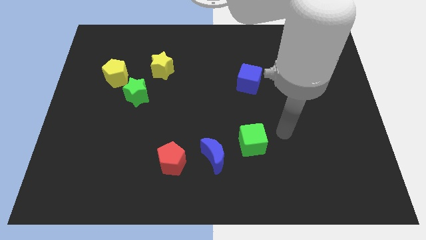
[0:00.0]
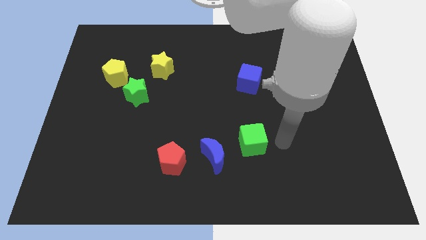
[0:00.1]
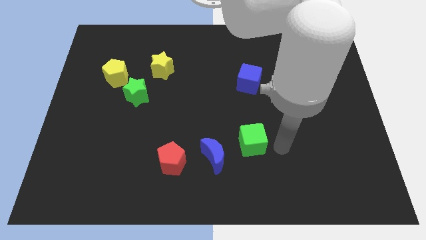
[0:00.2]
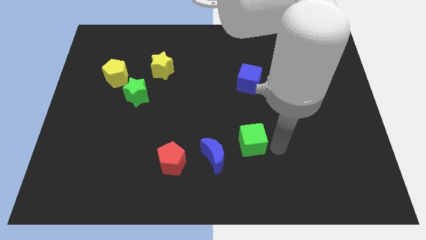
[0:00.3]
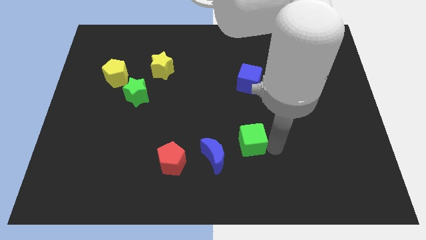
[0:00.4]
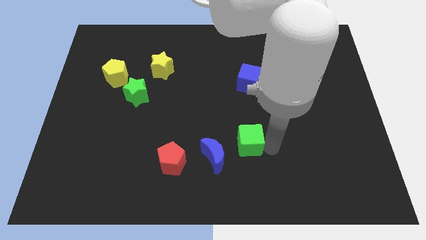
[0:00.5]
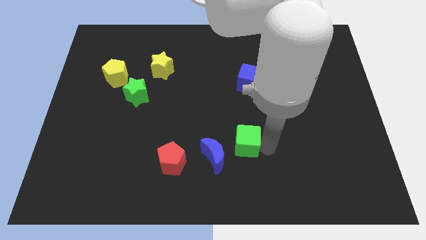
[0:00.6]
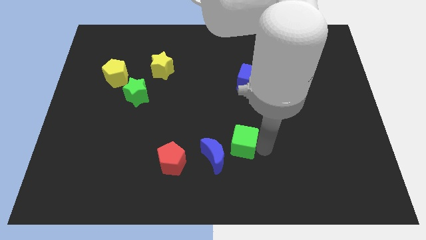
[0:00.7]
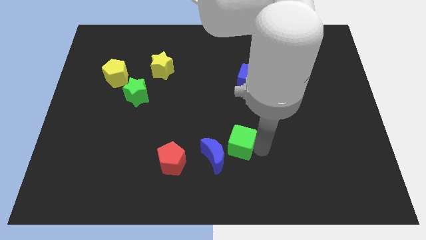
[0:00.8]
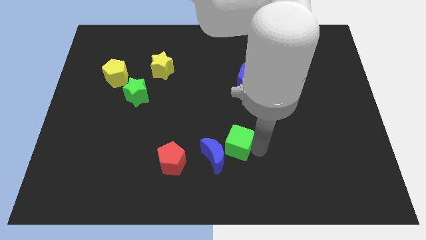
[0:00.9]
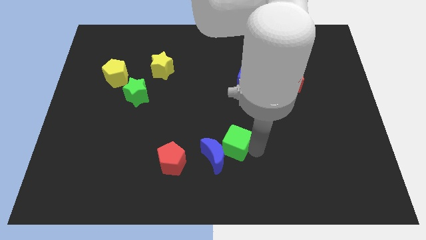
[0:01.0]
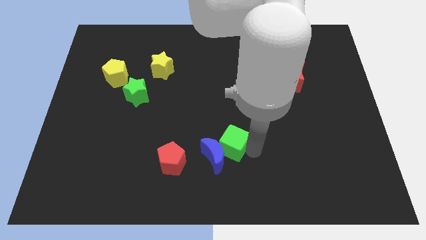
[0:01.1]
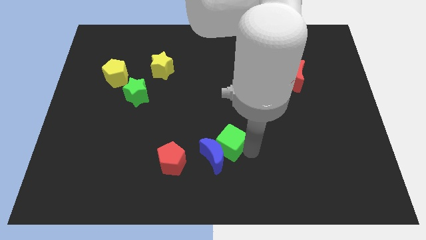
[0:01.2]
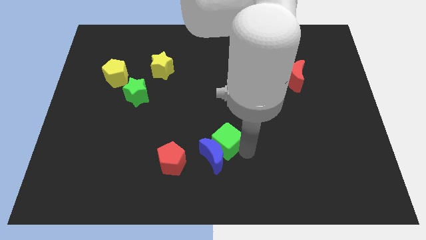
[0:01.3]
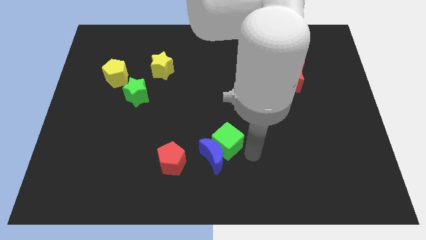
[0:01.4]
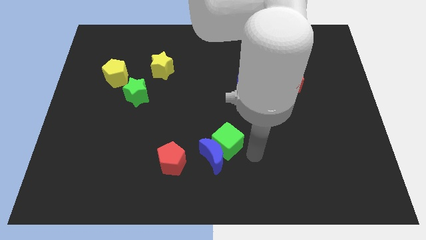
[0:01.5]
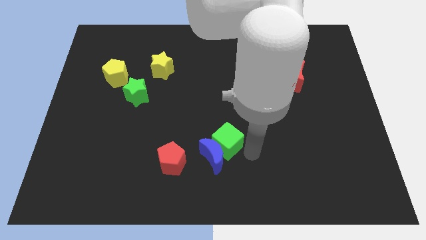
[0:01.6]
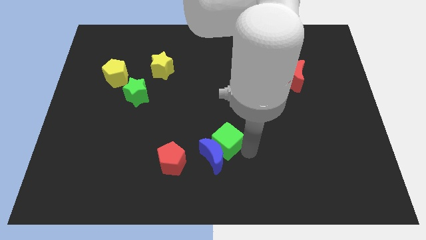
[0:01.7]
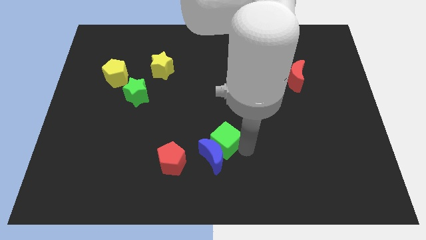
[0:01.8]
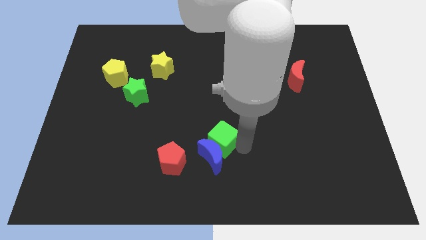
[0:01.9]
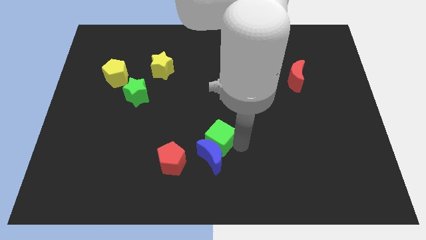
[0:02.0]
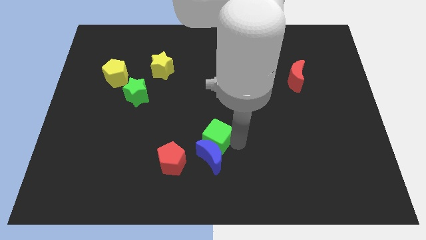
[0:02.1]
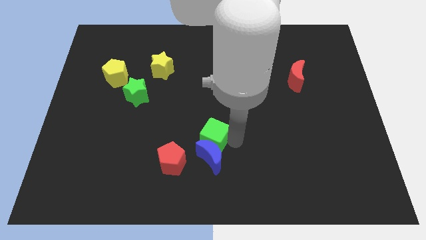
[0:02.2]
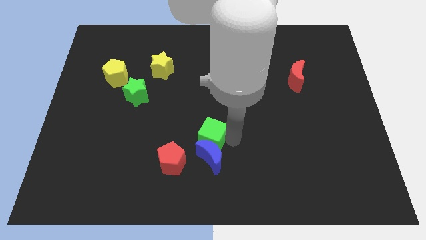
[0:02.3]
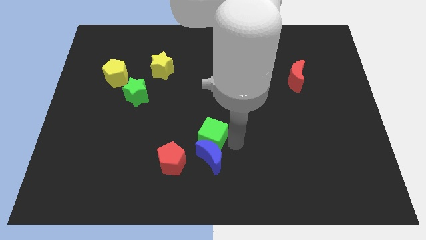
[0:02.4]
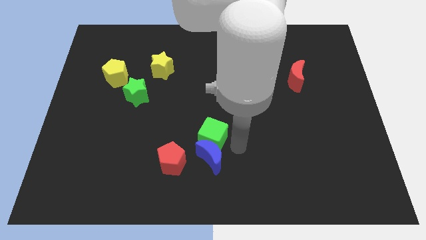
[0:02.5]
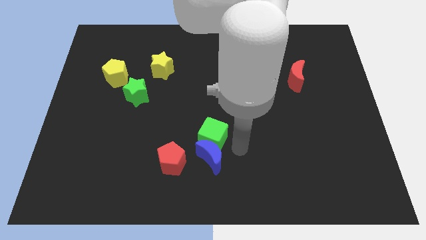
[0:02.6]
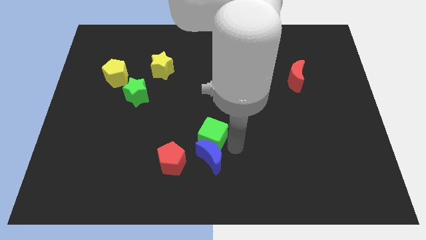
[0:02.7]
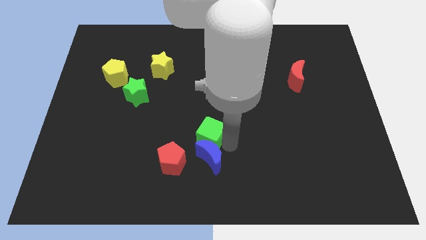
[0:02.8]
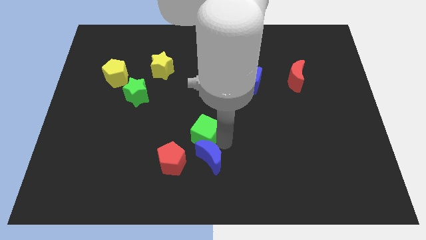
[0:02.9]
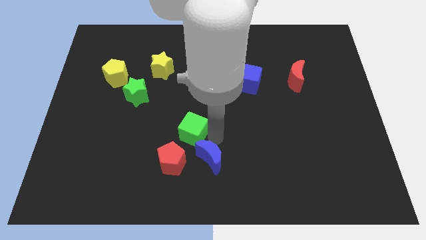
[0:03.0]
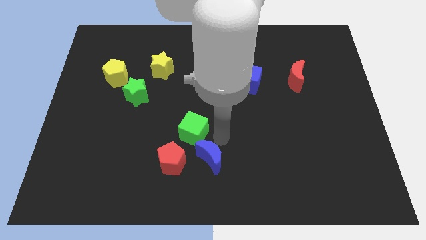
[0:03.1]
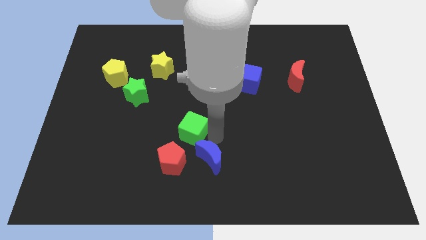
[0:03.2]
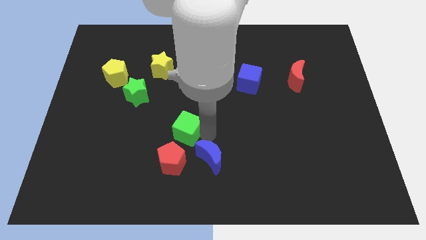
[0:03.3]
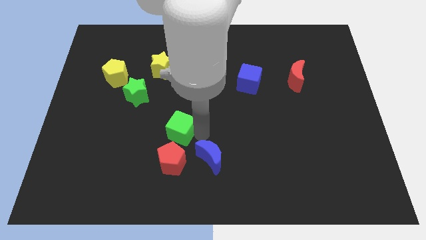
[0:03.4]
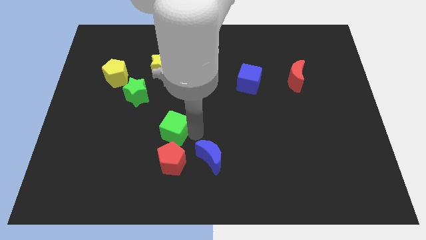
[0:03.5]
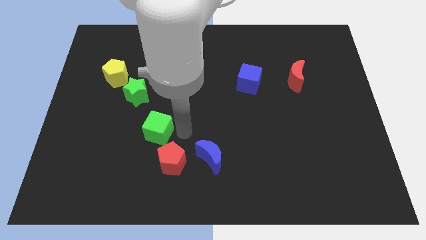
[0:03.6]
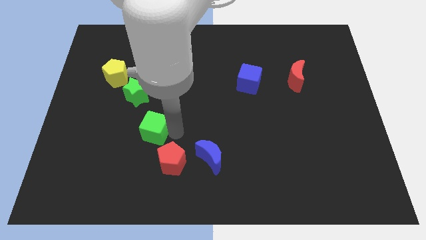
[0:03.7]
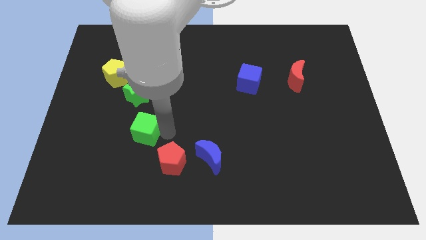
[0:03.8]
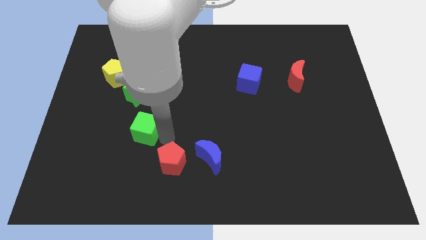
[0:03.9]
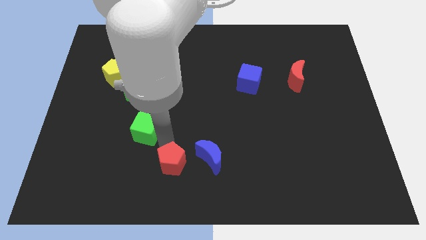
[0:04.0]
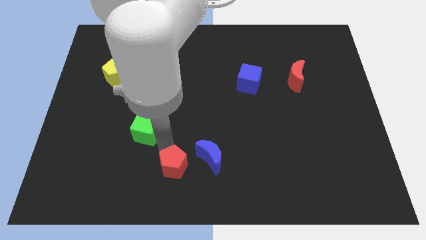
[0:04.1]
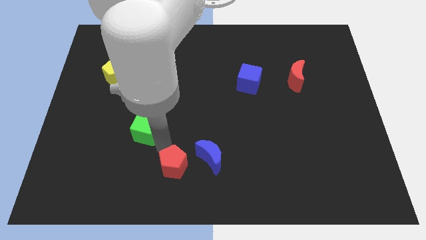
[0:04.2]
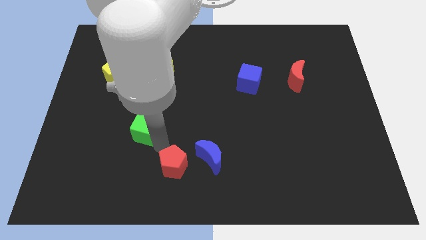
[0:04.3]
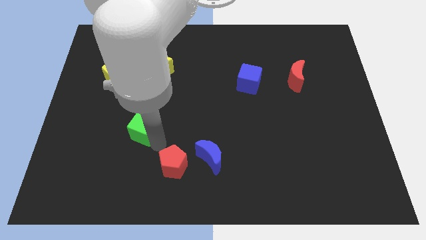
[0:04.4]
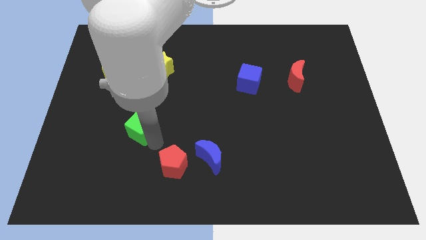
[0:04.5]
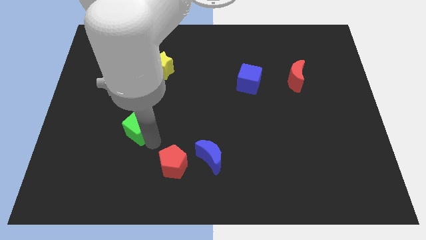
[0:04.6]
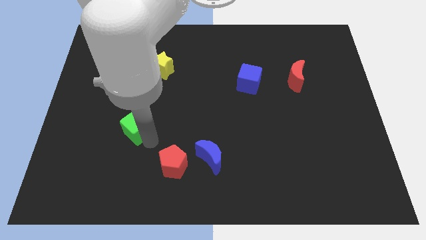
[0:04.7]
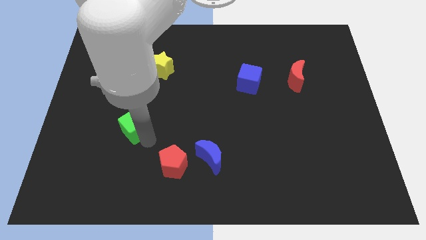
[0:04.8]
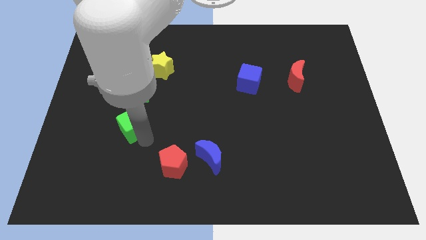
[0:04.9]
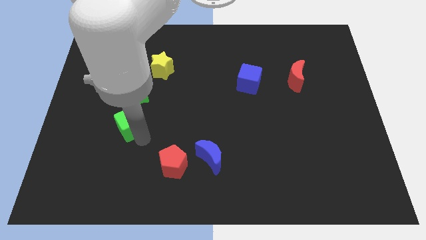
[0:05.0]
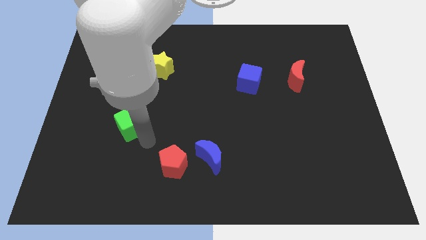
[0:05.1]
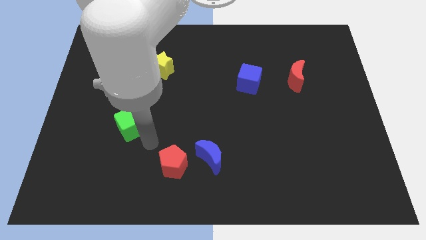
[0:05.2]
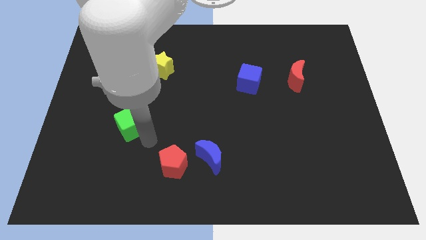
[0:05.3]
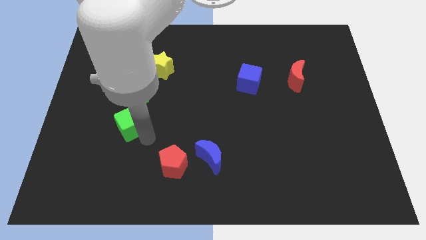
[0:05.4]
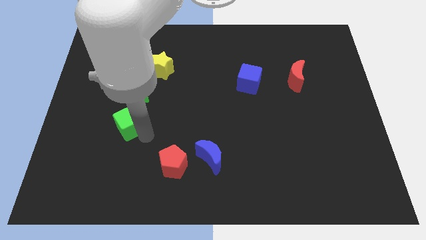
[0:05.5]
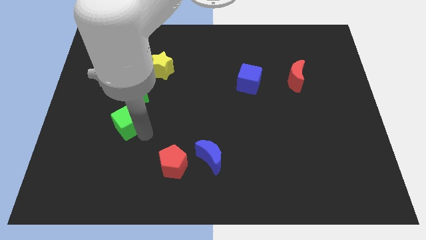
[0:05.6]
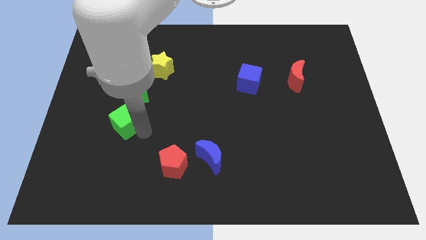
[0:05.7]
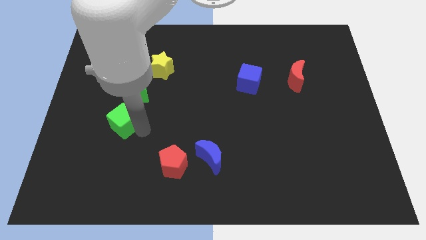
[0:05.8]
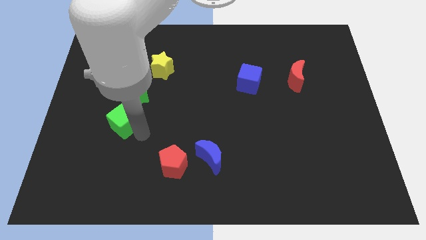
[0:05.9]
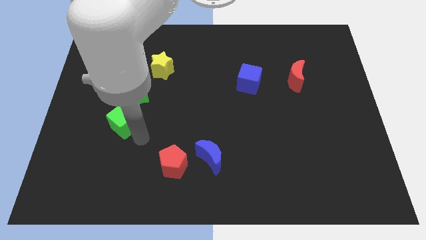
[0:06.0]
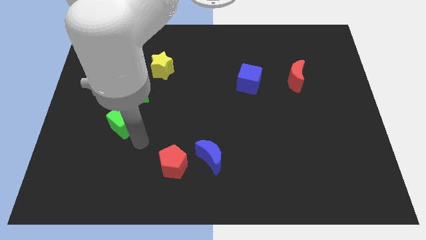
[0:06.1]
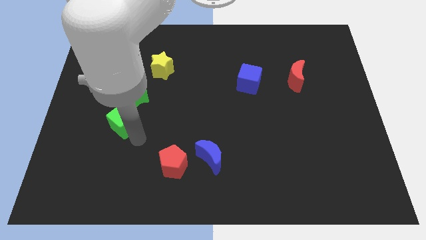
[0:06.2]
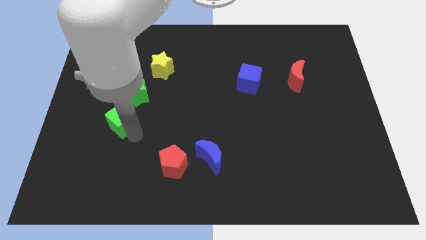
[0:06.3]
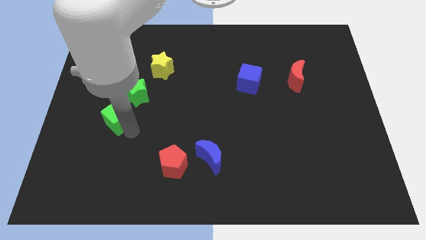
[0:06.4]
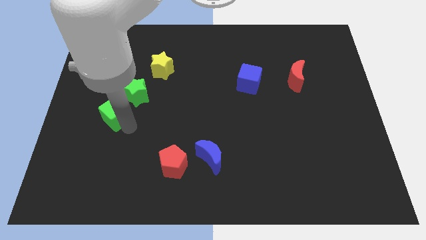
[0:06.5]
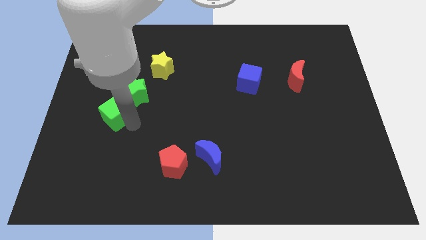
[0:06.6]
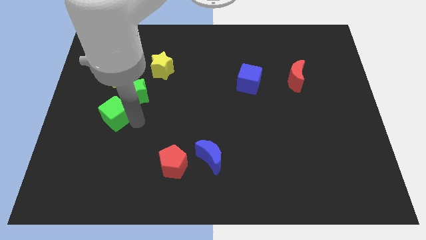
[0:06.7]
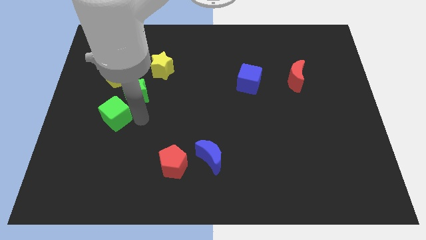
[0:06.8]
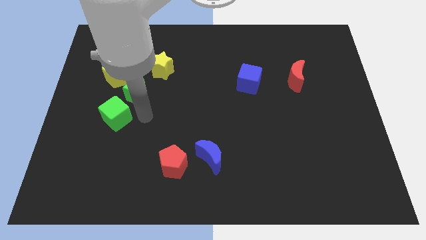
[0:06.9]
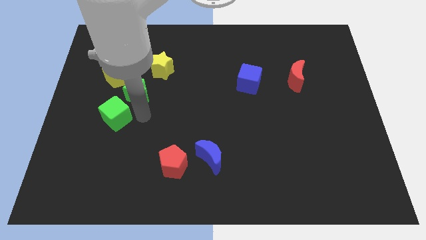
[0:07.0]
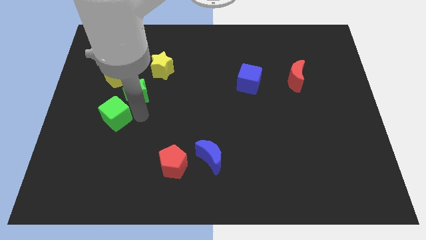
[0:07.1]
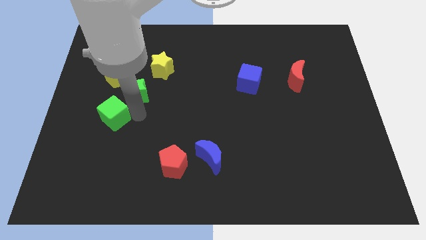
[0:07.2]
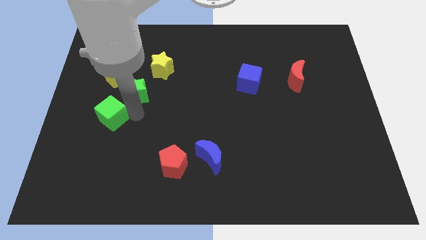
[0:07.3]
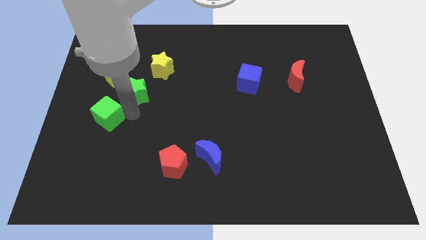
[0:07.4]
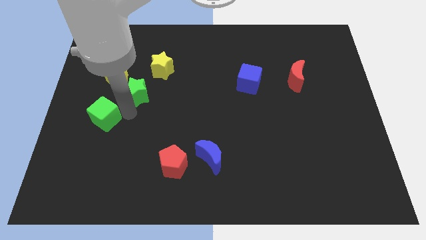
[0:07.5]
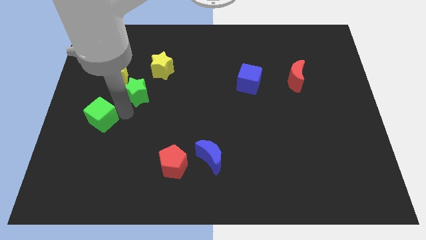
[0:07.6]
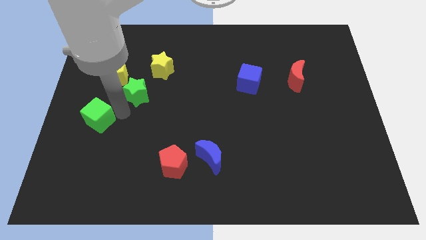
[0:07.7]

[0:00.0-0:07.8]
slide the green cube to the center left
